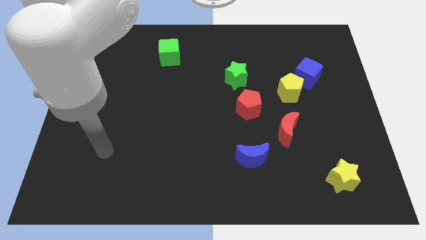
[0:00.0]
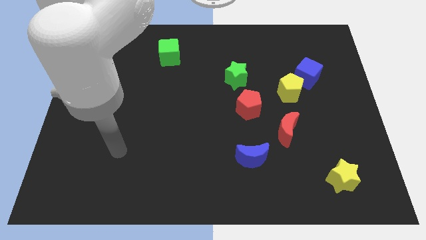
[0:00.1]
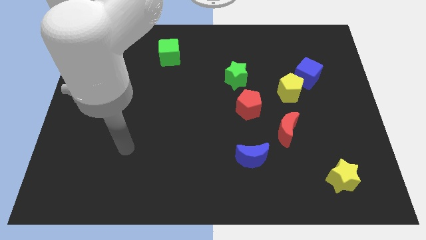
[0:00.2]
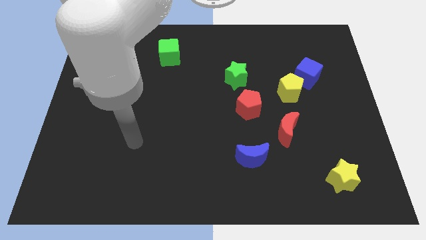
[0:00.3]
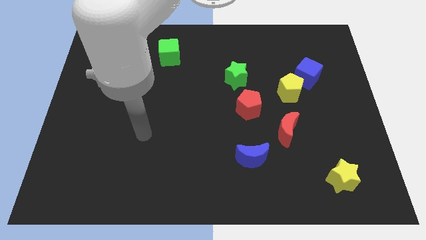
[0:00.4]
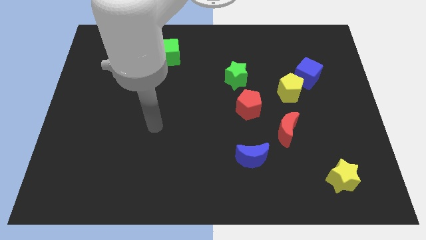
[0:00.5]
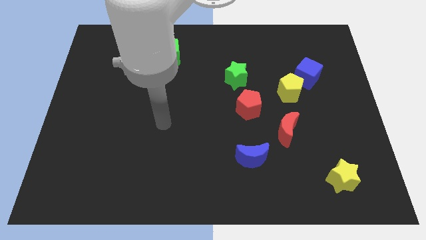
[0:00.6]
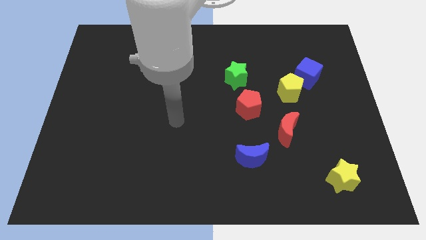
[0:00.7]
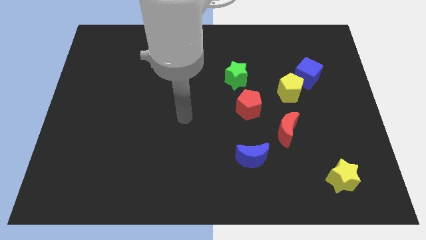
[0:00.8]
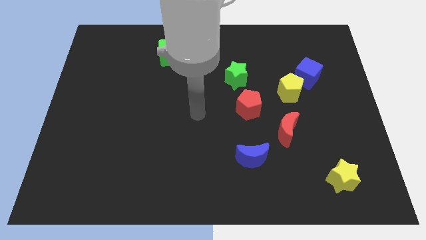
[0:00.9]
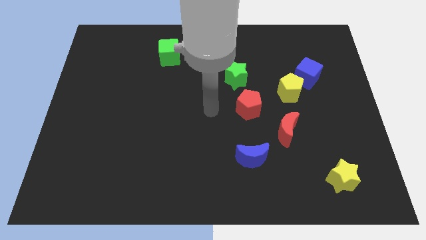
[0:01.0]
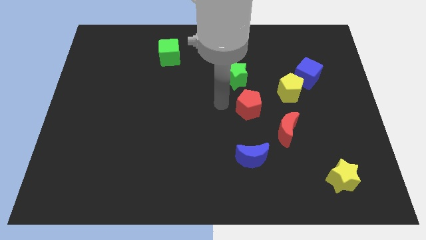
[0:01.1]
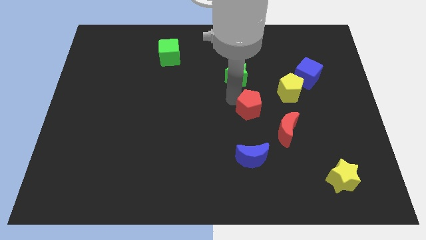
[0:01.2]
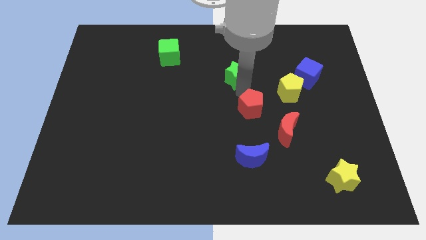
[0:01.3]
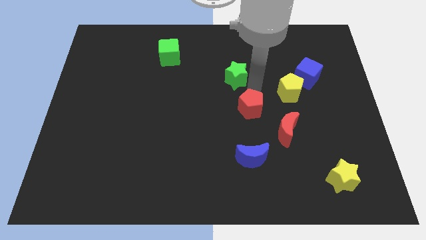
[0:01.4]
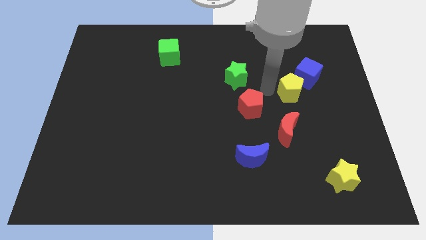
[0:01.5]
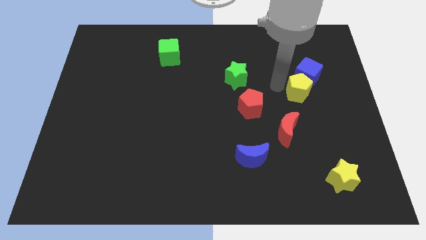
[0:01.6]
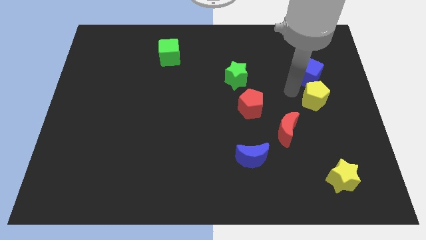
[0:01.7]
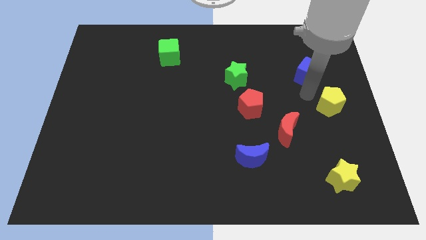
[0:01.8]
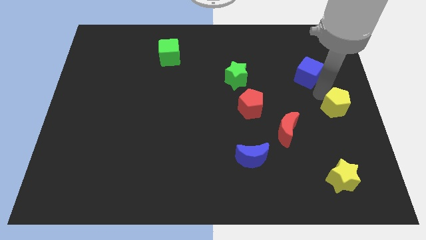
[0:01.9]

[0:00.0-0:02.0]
move the blue cube away from the yellow pentagon

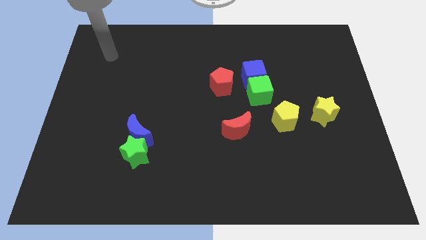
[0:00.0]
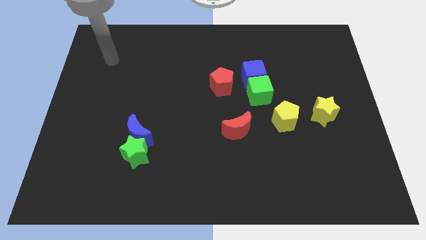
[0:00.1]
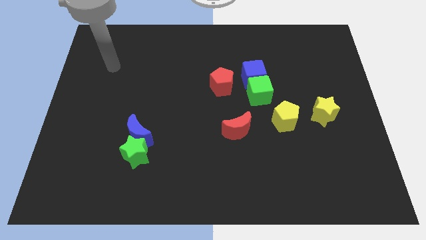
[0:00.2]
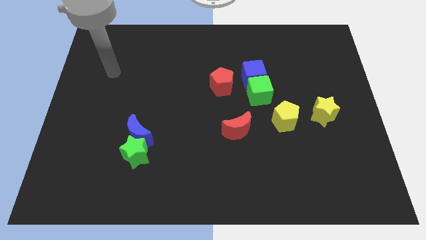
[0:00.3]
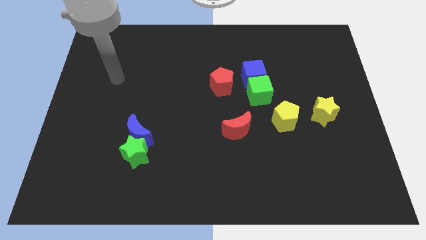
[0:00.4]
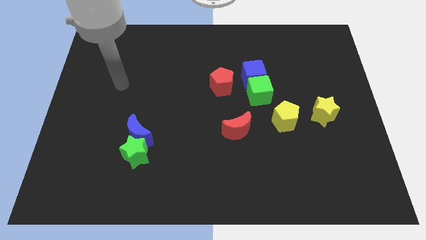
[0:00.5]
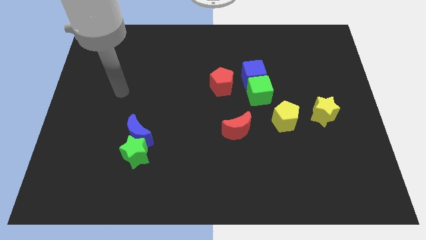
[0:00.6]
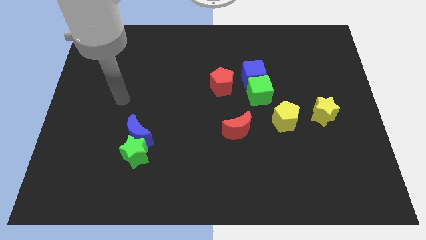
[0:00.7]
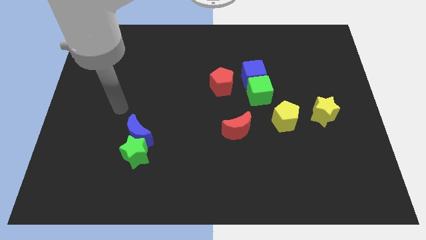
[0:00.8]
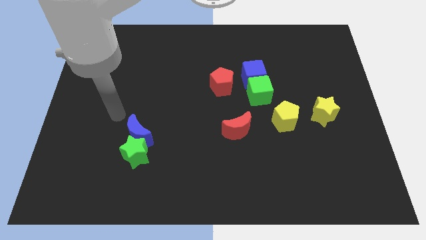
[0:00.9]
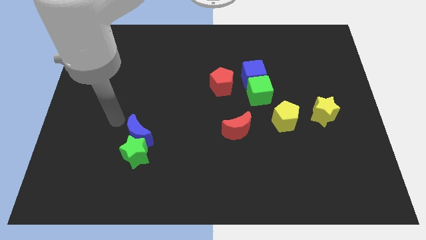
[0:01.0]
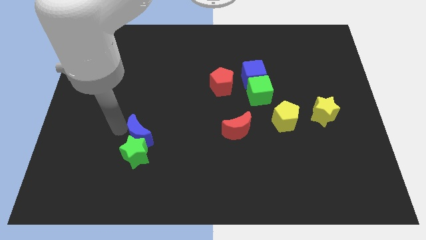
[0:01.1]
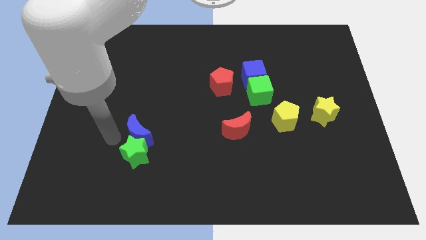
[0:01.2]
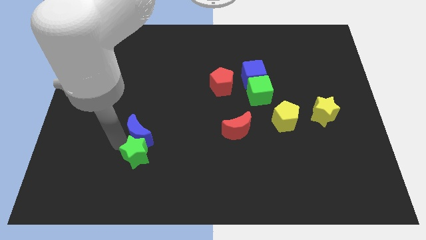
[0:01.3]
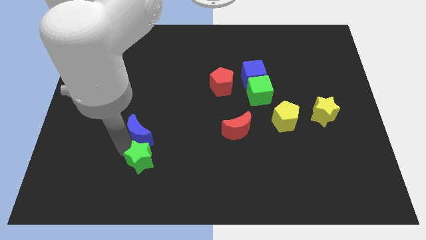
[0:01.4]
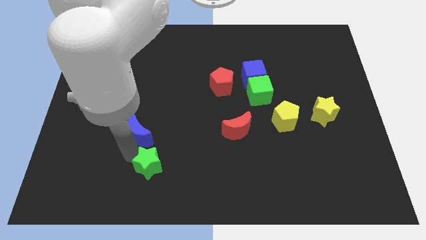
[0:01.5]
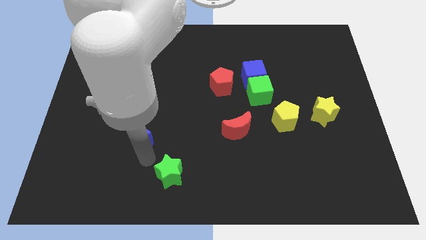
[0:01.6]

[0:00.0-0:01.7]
move the blue moon away from the green star

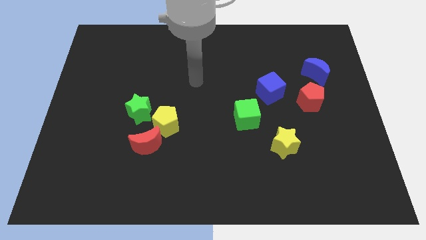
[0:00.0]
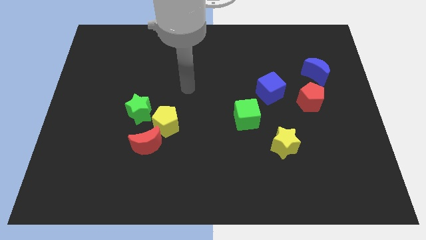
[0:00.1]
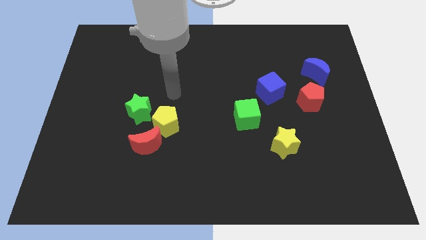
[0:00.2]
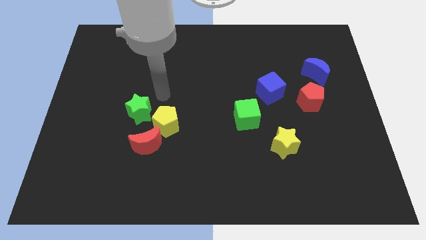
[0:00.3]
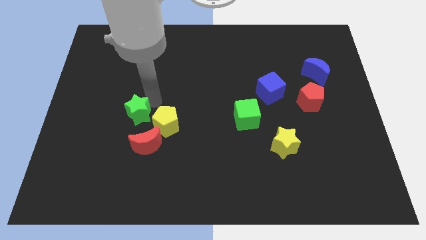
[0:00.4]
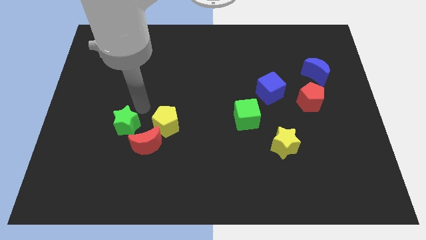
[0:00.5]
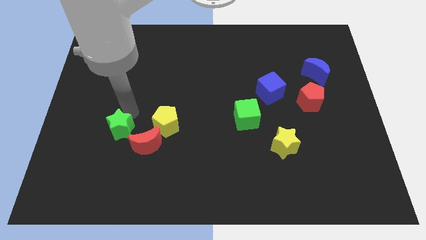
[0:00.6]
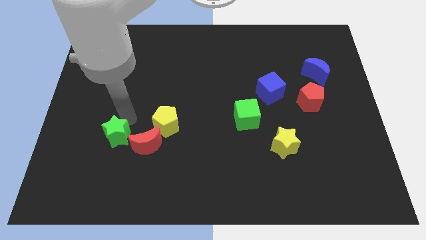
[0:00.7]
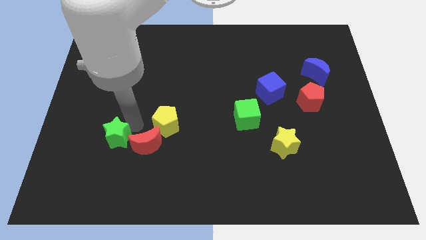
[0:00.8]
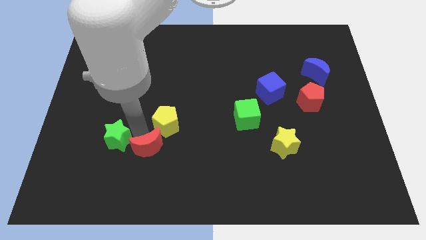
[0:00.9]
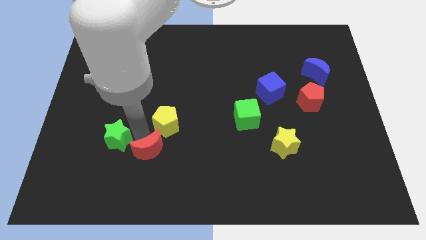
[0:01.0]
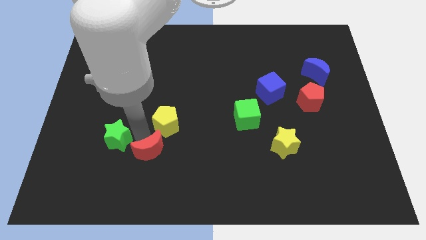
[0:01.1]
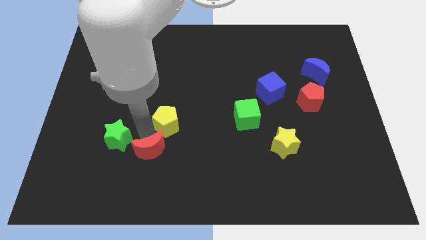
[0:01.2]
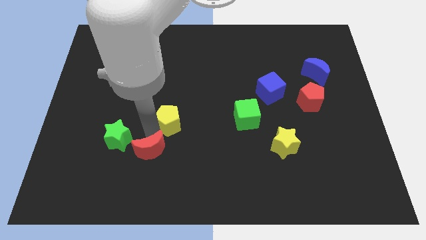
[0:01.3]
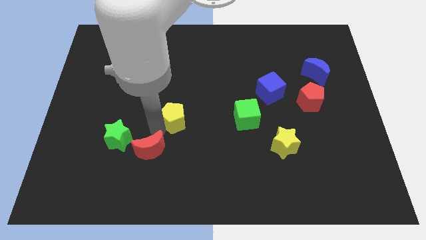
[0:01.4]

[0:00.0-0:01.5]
move the yellow pentagon away from the red moon and green star

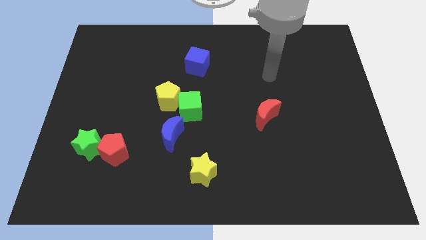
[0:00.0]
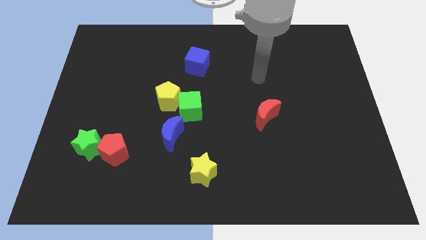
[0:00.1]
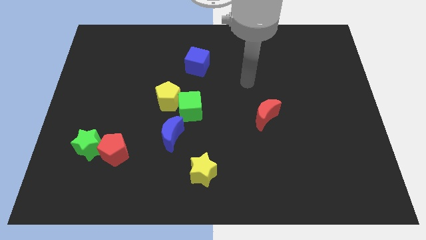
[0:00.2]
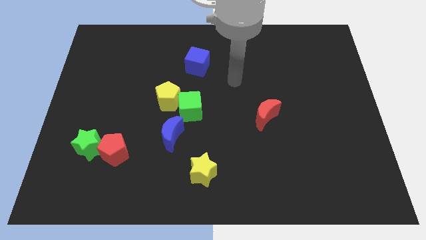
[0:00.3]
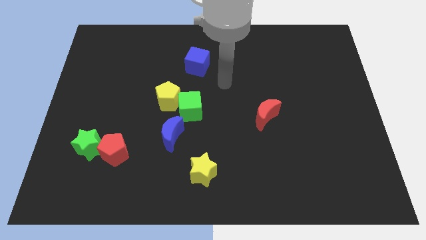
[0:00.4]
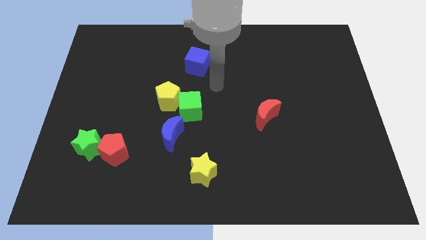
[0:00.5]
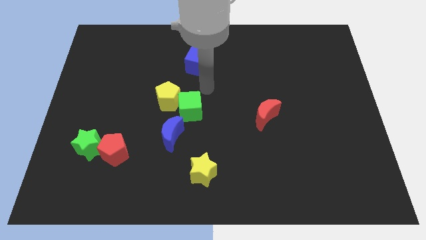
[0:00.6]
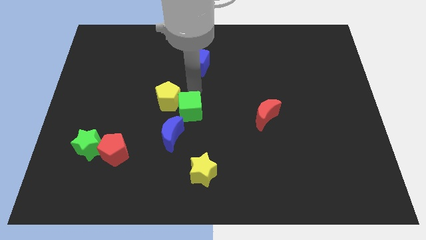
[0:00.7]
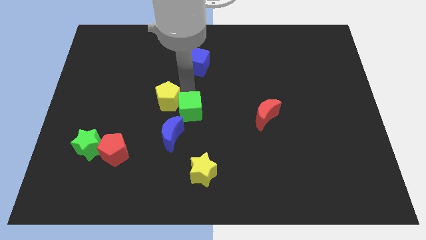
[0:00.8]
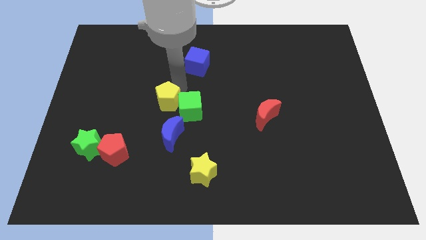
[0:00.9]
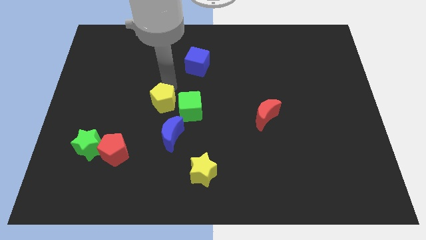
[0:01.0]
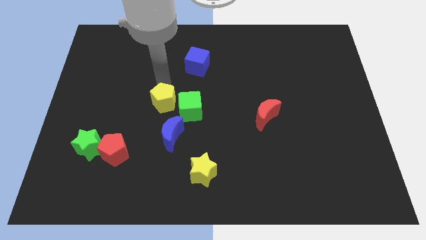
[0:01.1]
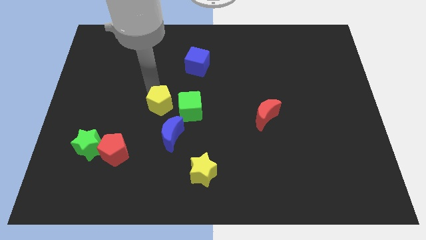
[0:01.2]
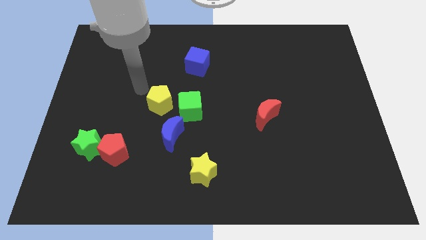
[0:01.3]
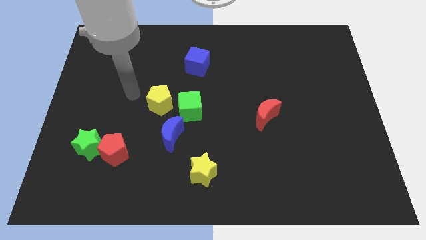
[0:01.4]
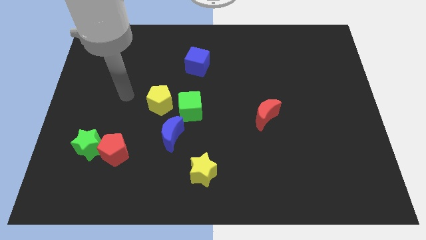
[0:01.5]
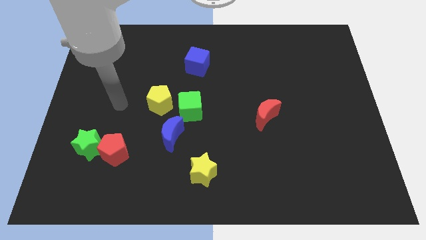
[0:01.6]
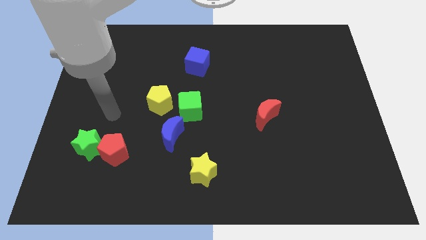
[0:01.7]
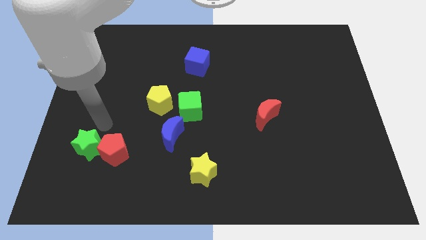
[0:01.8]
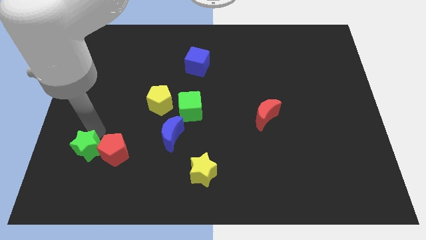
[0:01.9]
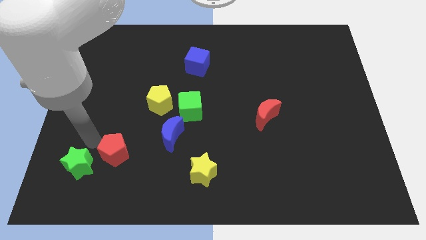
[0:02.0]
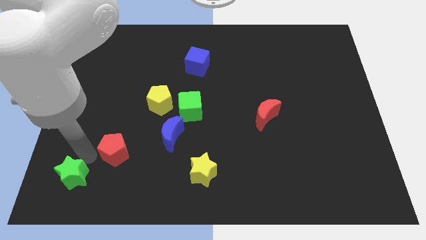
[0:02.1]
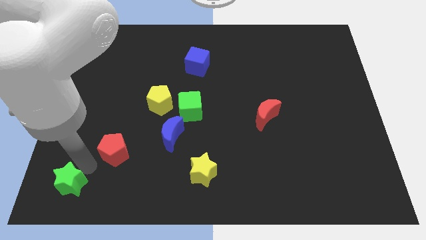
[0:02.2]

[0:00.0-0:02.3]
separate the red pentagon from the green star

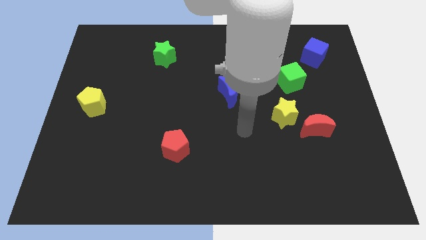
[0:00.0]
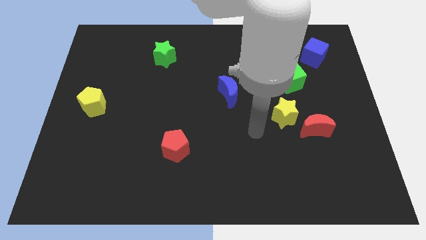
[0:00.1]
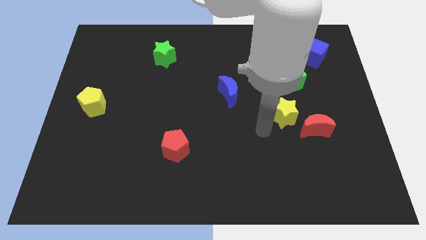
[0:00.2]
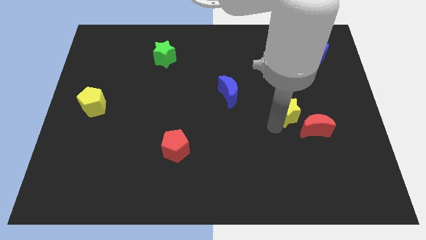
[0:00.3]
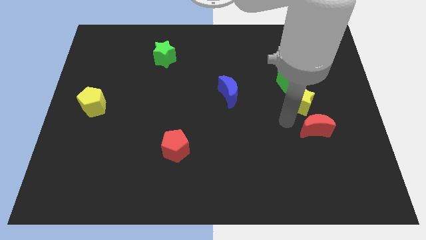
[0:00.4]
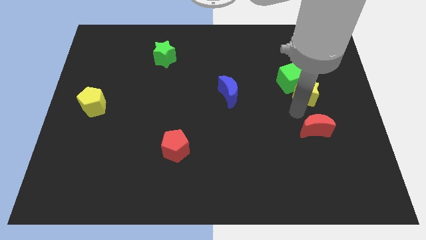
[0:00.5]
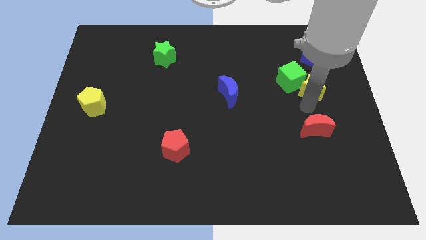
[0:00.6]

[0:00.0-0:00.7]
pull the red moon apart from the yellow star

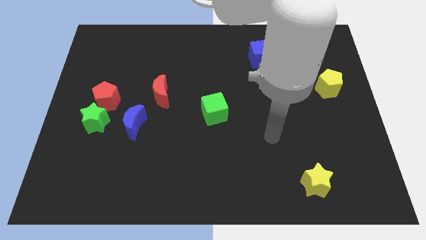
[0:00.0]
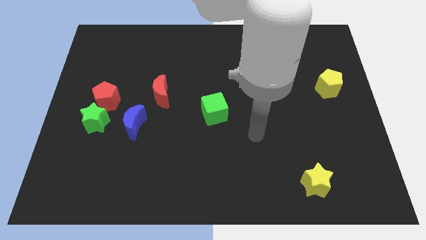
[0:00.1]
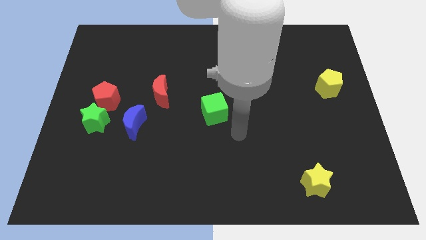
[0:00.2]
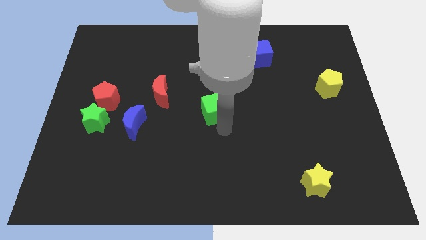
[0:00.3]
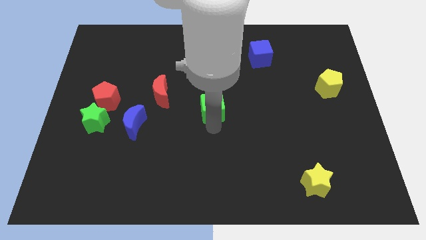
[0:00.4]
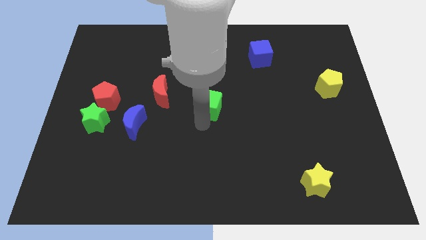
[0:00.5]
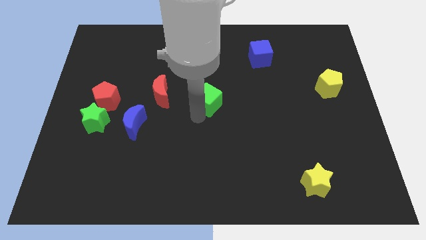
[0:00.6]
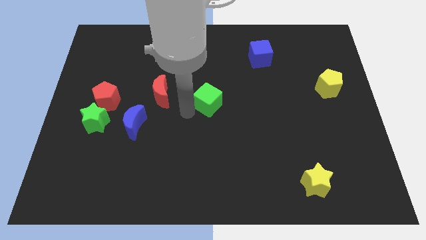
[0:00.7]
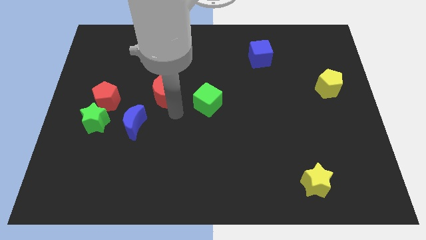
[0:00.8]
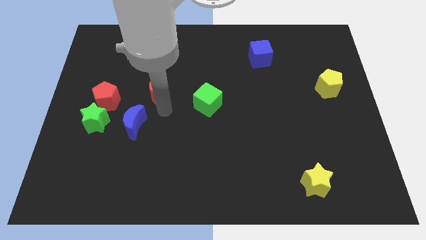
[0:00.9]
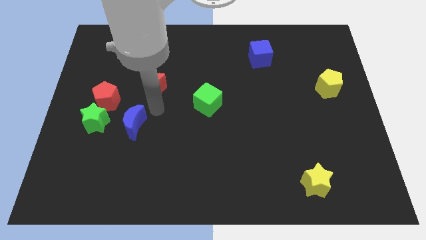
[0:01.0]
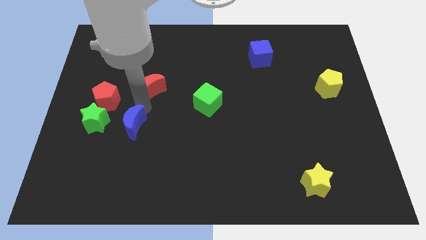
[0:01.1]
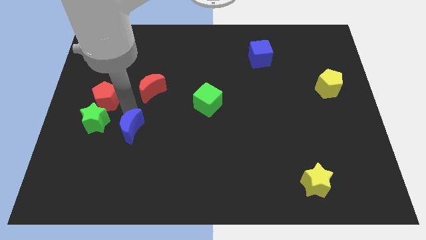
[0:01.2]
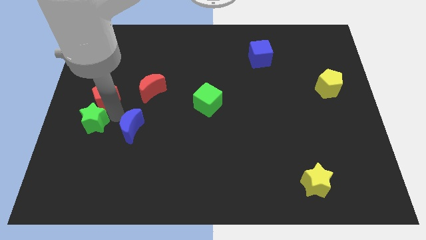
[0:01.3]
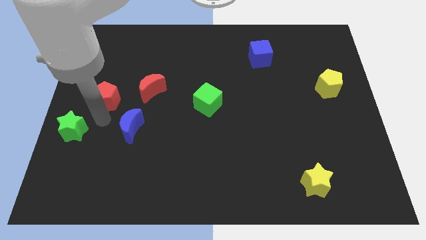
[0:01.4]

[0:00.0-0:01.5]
pull the red pentagon apart from the green star
